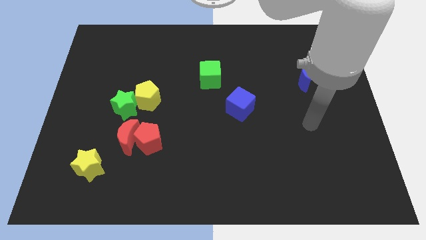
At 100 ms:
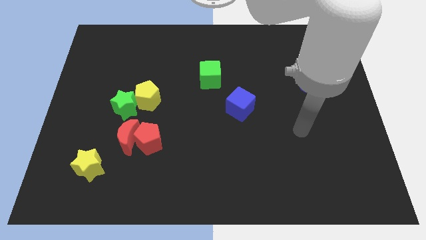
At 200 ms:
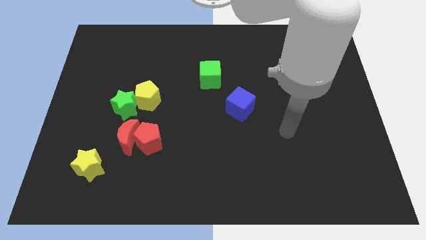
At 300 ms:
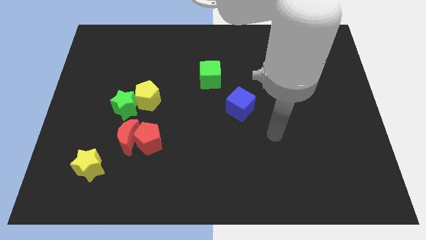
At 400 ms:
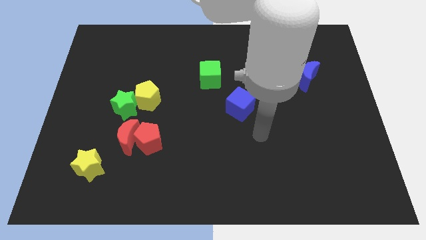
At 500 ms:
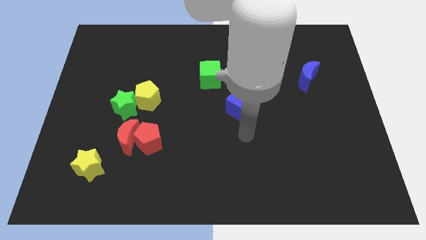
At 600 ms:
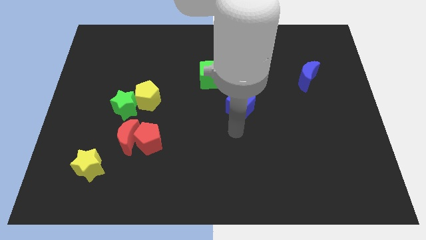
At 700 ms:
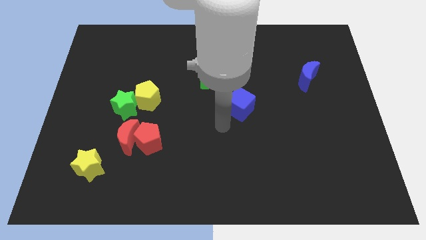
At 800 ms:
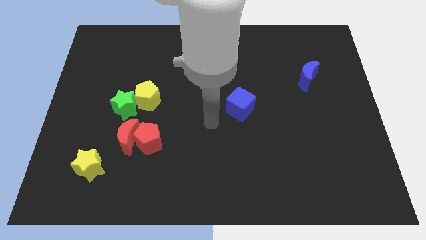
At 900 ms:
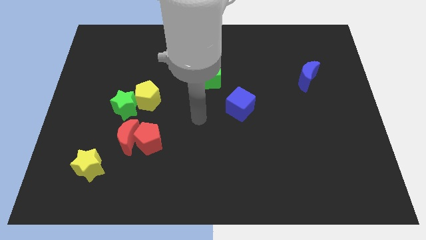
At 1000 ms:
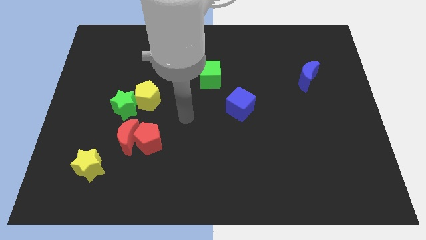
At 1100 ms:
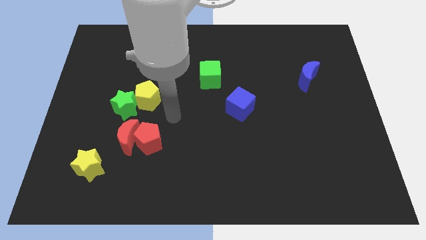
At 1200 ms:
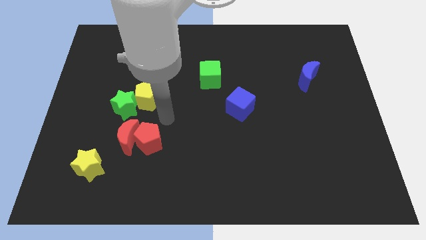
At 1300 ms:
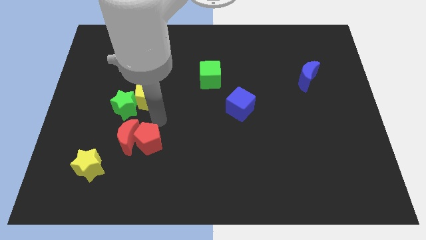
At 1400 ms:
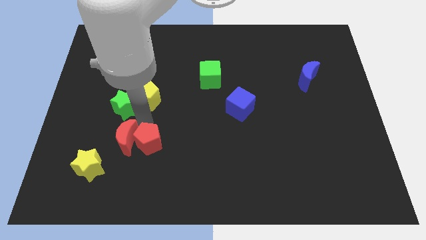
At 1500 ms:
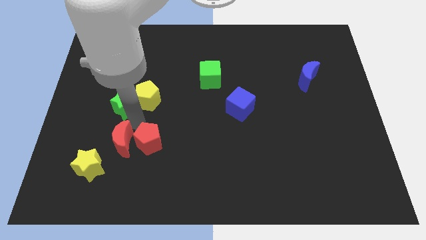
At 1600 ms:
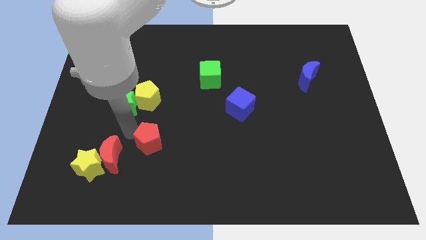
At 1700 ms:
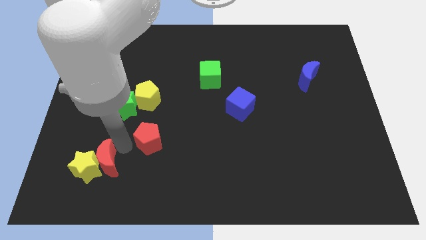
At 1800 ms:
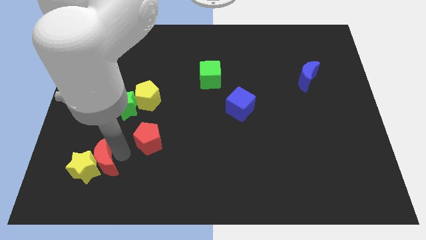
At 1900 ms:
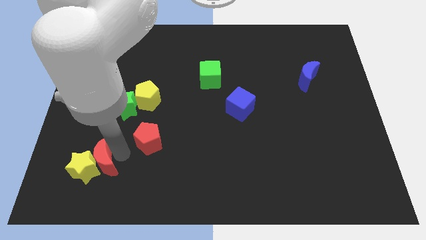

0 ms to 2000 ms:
move the red pentagon away from the red moon

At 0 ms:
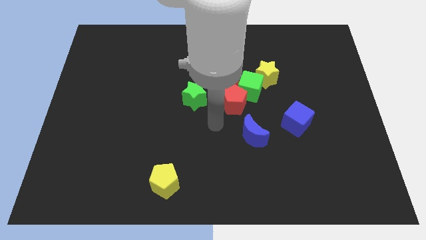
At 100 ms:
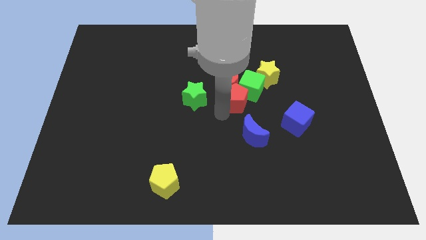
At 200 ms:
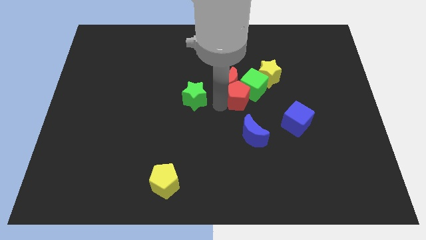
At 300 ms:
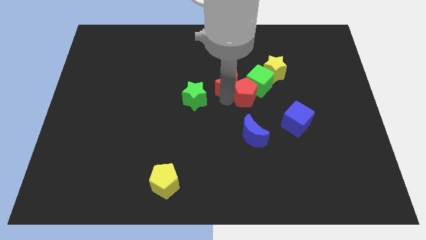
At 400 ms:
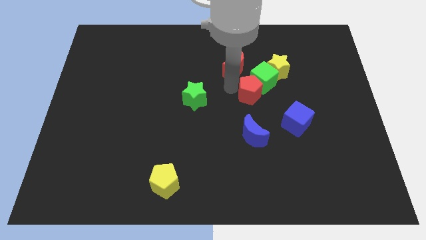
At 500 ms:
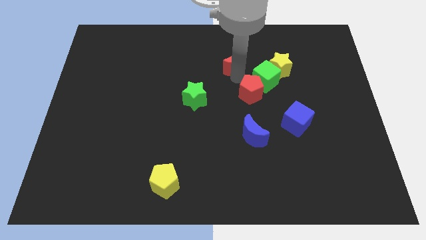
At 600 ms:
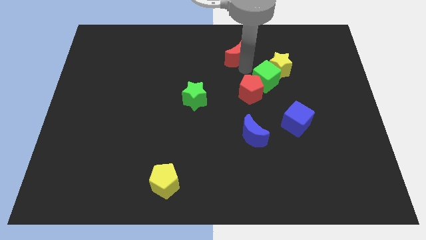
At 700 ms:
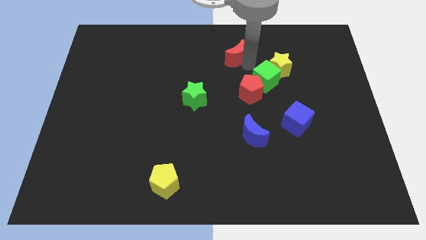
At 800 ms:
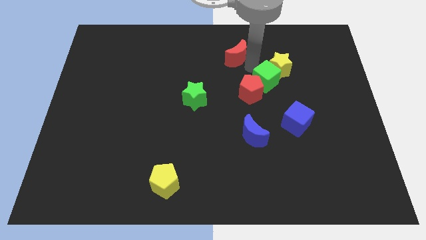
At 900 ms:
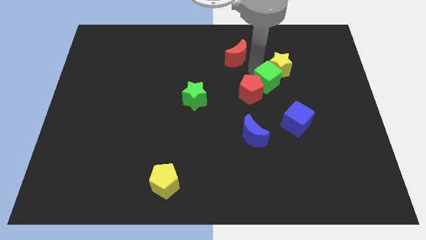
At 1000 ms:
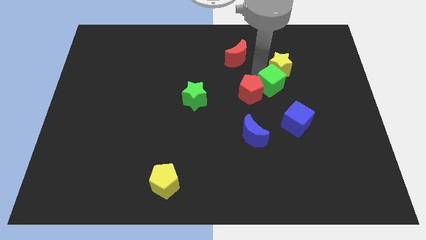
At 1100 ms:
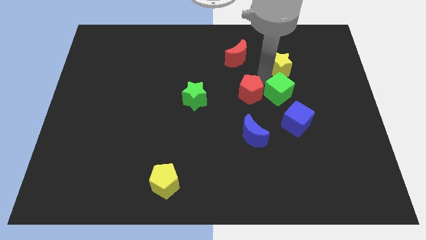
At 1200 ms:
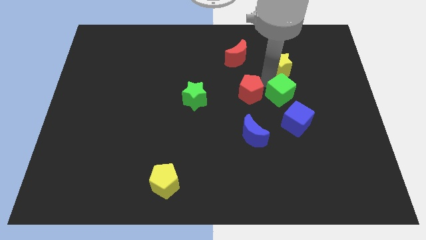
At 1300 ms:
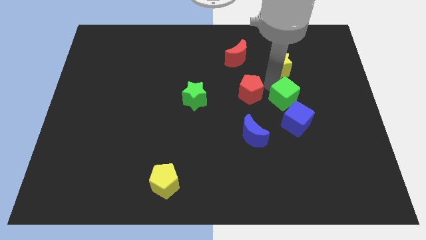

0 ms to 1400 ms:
separate the green cube from the red moon, yellow star, and red pentagon

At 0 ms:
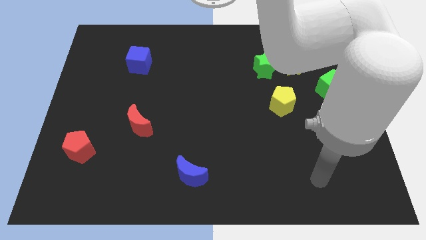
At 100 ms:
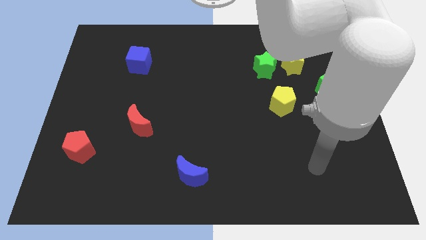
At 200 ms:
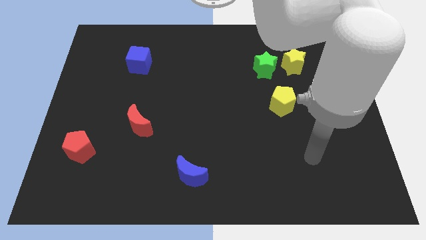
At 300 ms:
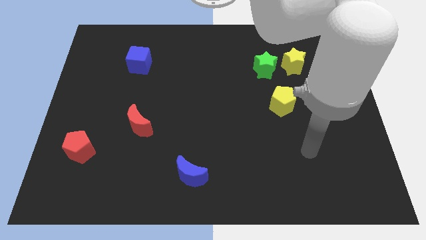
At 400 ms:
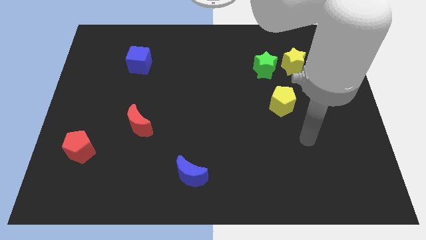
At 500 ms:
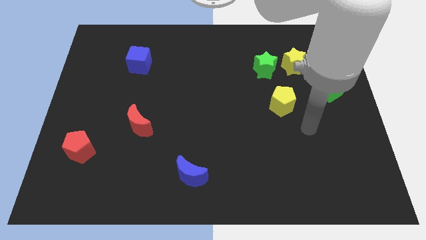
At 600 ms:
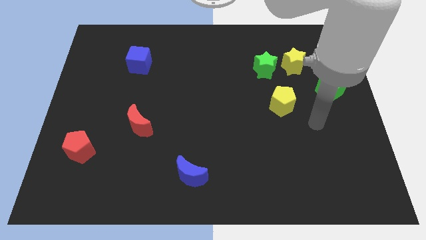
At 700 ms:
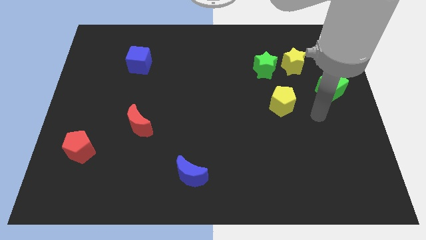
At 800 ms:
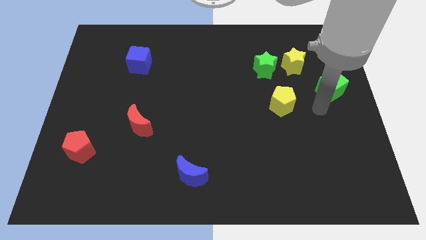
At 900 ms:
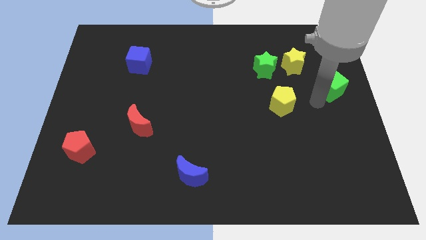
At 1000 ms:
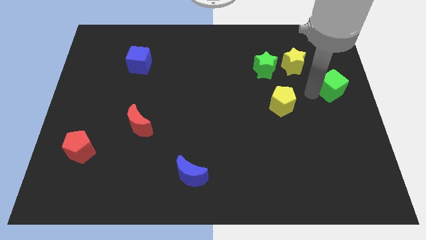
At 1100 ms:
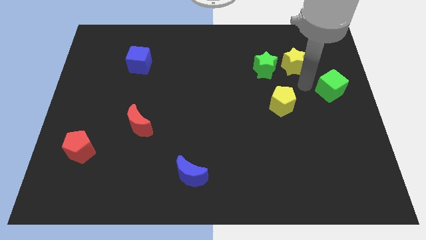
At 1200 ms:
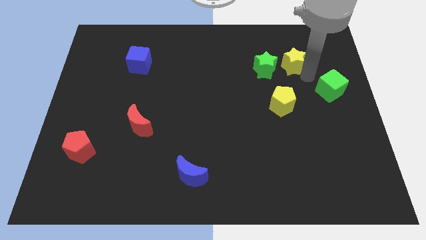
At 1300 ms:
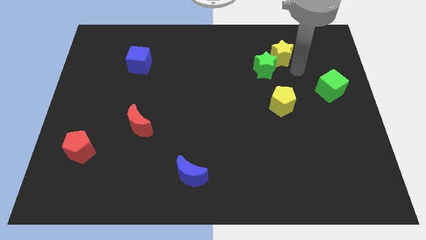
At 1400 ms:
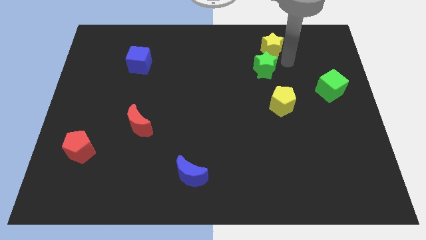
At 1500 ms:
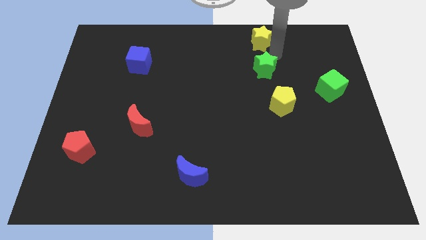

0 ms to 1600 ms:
pull the green star apart from the yellow star

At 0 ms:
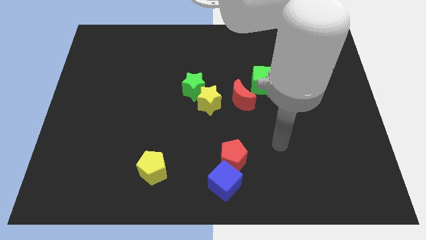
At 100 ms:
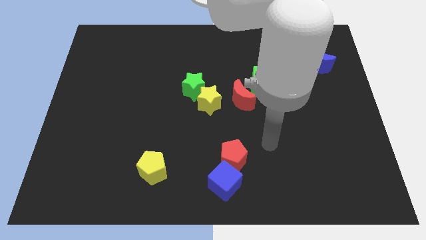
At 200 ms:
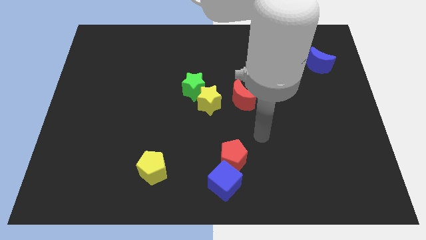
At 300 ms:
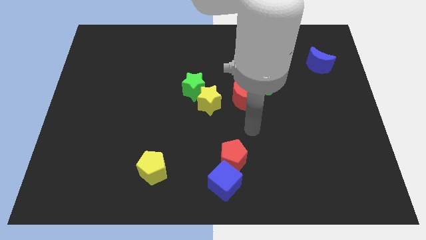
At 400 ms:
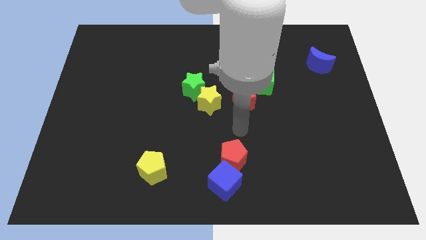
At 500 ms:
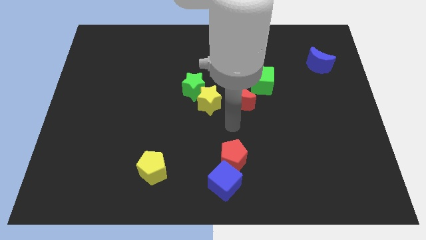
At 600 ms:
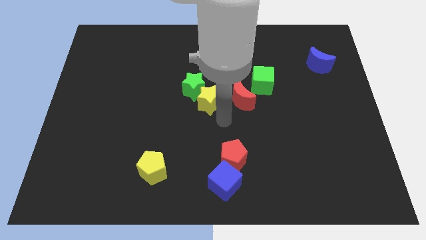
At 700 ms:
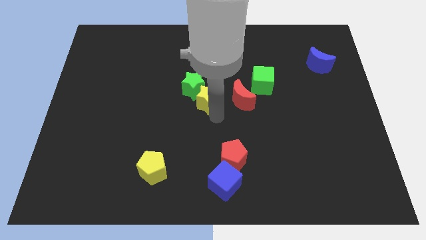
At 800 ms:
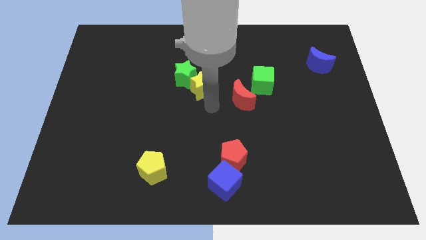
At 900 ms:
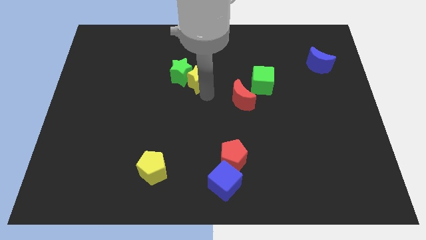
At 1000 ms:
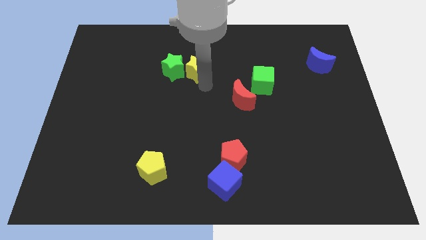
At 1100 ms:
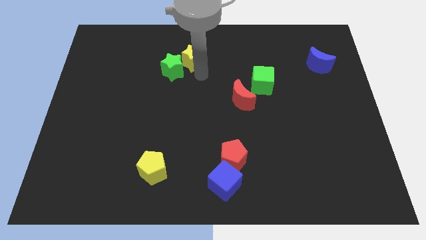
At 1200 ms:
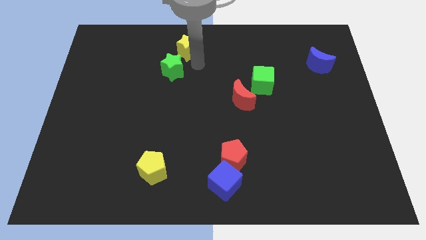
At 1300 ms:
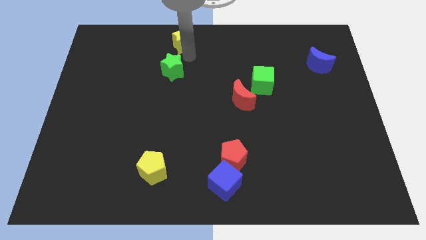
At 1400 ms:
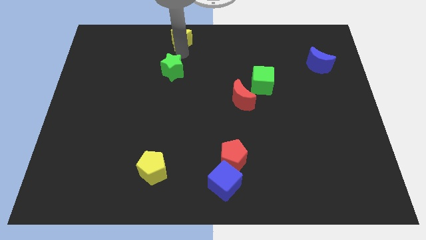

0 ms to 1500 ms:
separate the green star from the yellow star

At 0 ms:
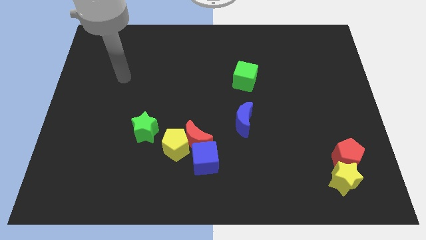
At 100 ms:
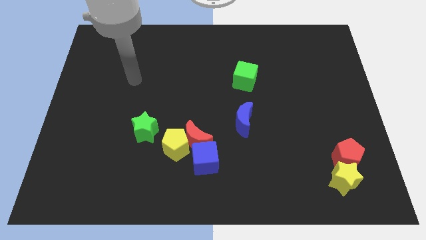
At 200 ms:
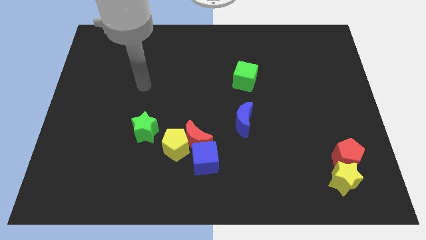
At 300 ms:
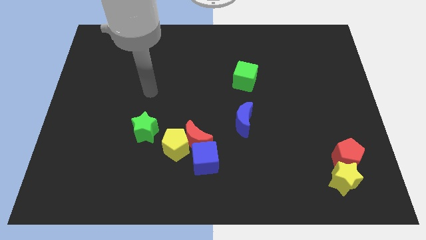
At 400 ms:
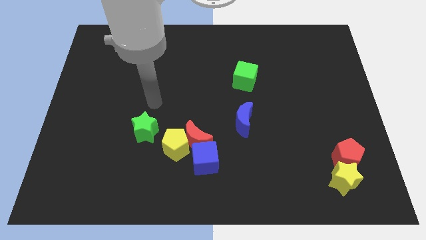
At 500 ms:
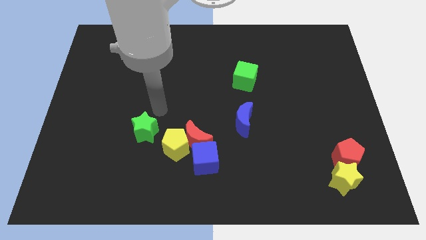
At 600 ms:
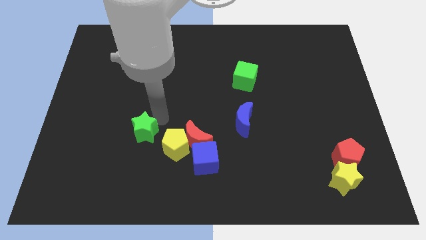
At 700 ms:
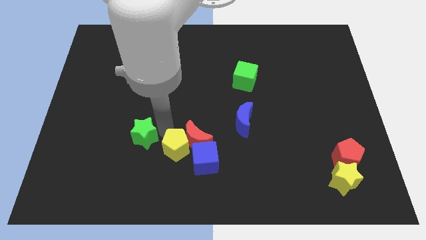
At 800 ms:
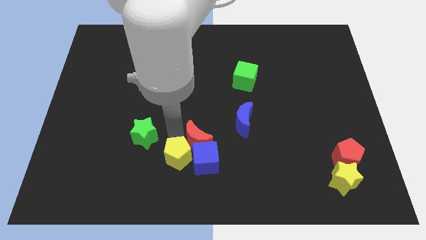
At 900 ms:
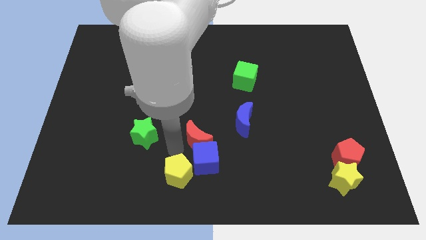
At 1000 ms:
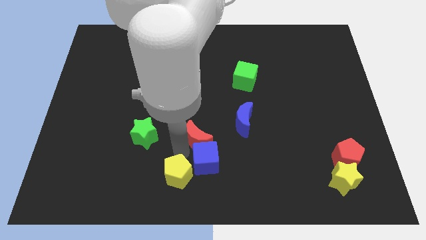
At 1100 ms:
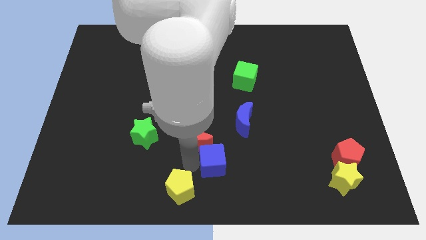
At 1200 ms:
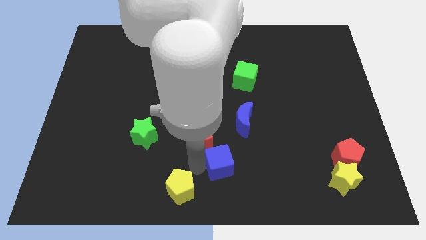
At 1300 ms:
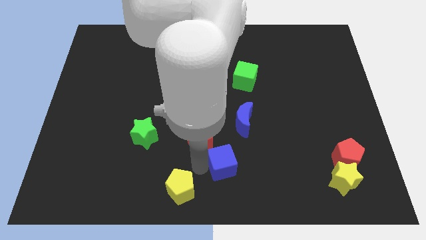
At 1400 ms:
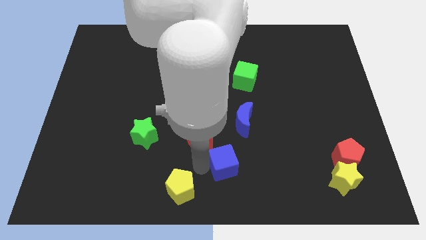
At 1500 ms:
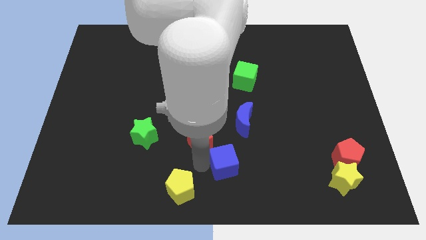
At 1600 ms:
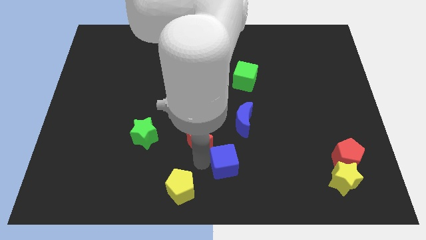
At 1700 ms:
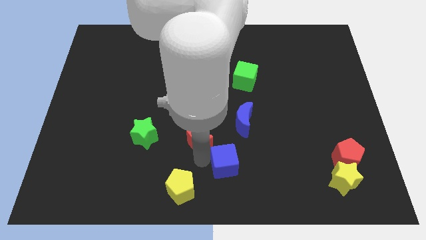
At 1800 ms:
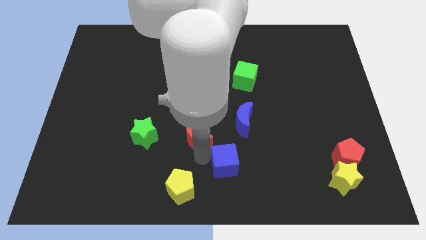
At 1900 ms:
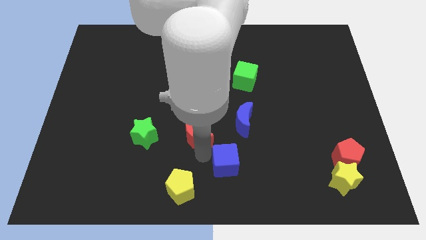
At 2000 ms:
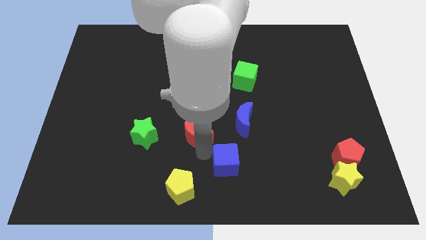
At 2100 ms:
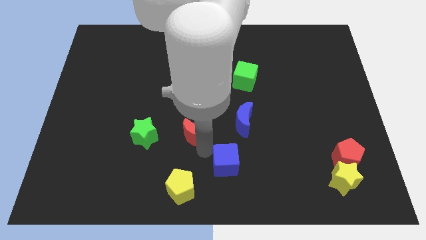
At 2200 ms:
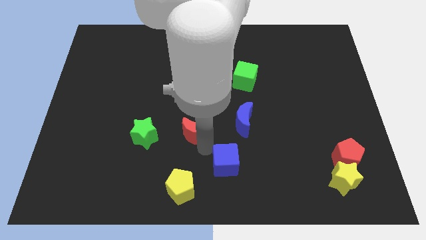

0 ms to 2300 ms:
move the red moon away from the yellow pentagon and blue cube

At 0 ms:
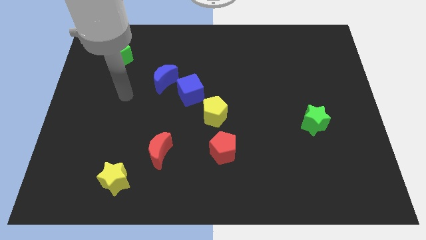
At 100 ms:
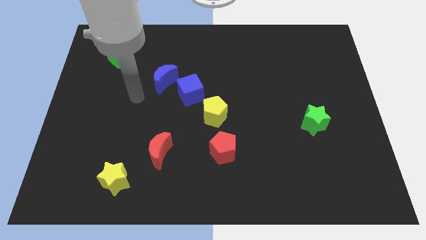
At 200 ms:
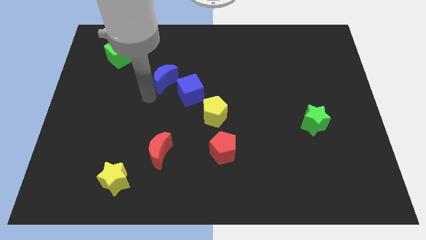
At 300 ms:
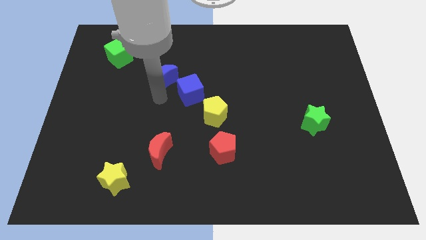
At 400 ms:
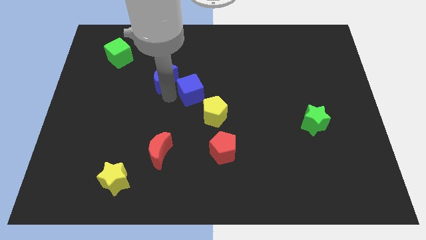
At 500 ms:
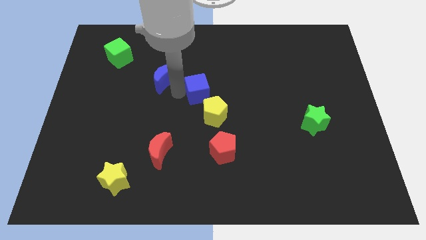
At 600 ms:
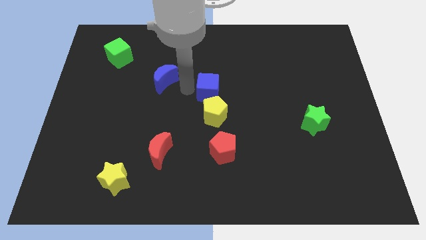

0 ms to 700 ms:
move the blue moon away from the blue cube

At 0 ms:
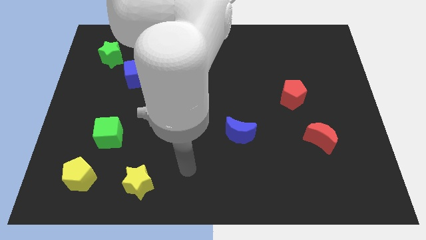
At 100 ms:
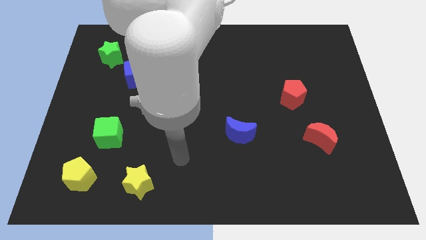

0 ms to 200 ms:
pull the blue cube apart from the green star
